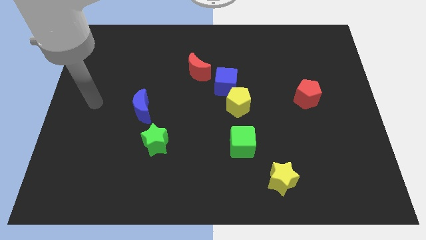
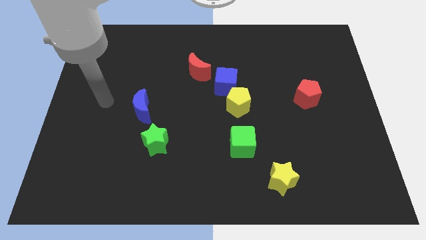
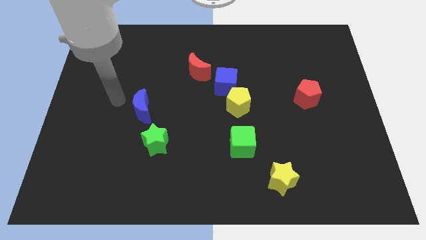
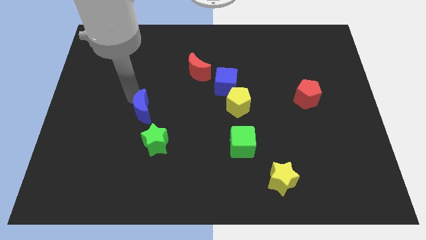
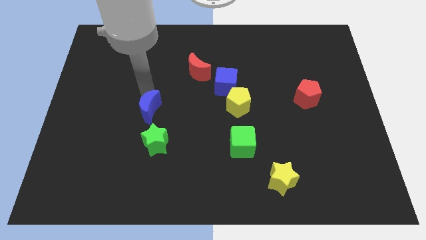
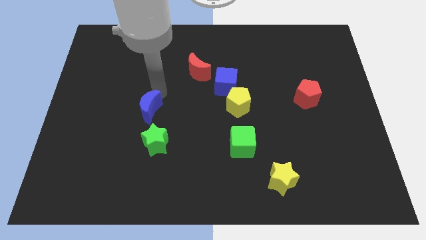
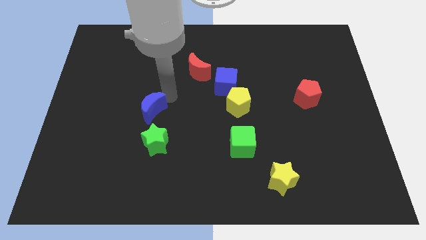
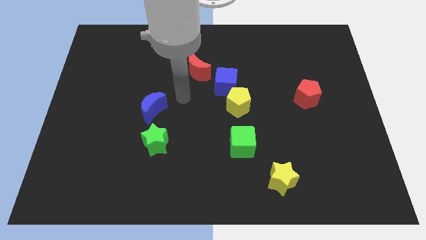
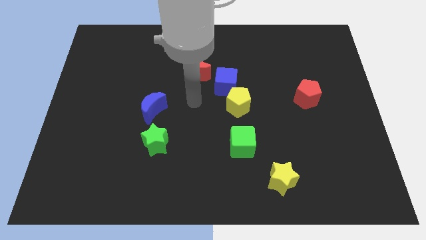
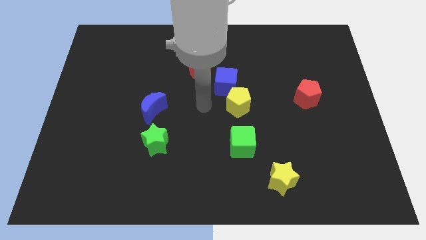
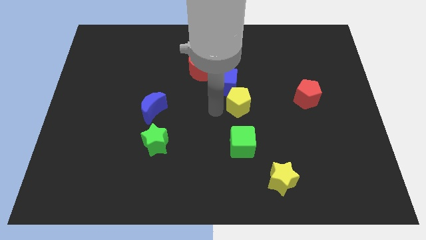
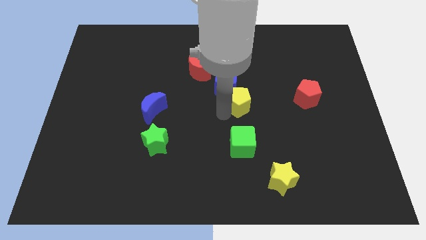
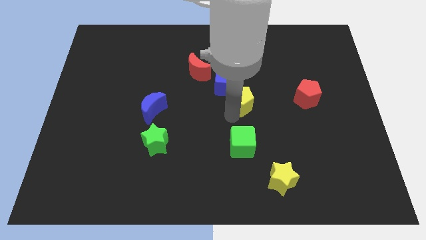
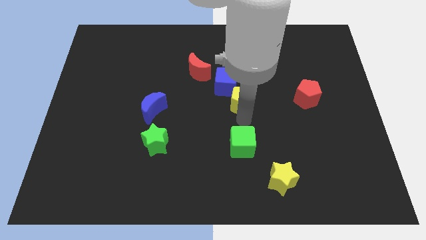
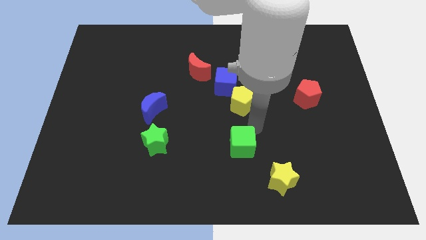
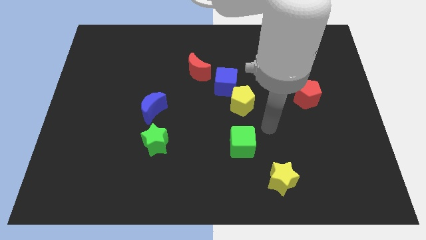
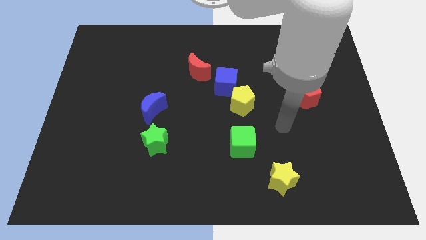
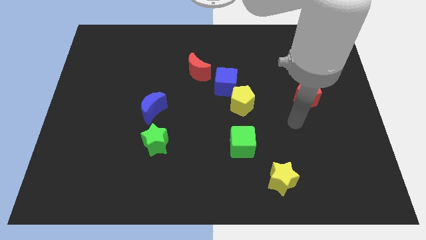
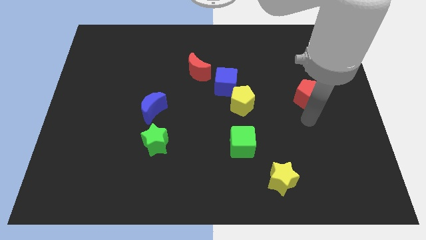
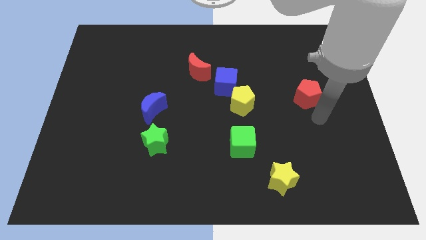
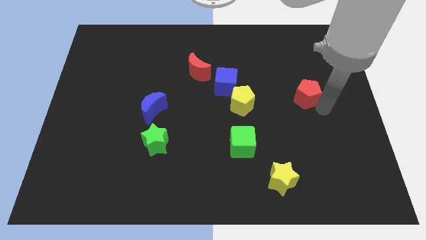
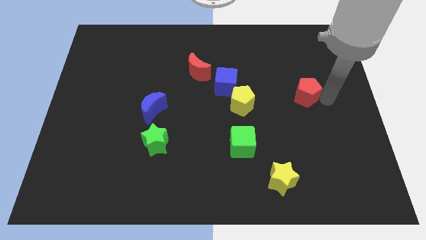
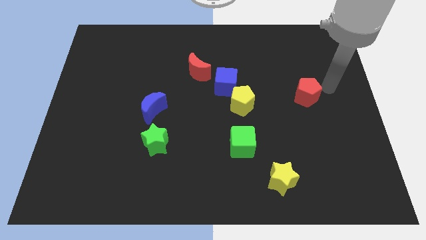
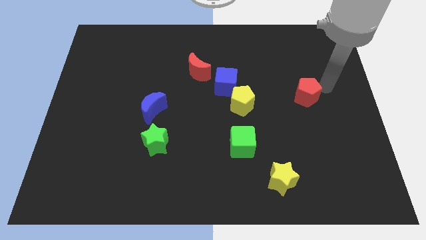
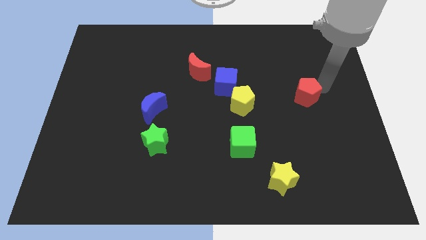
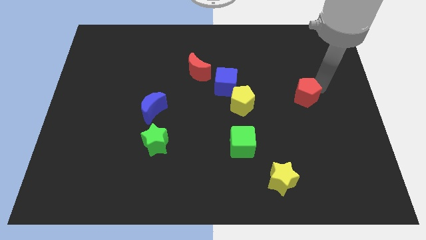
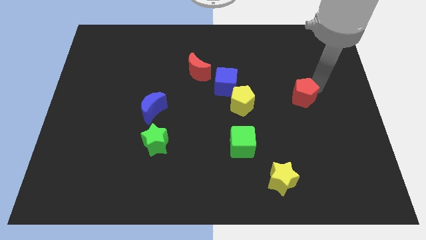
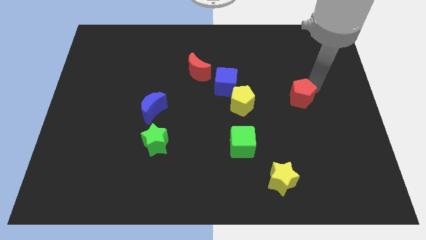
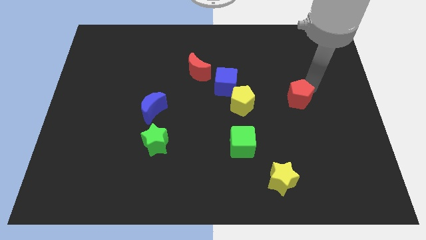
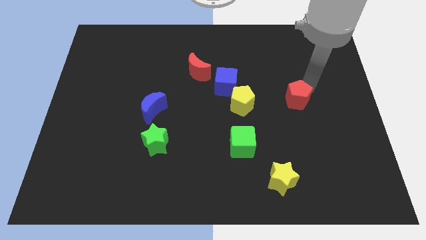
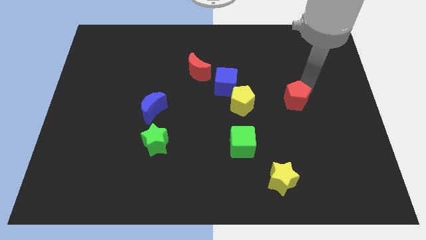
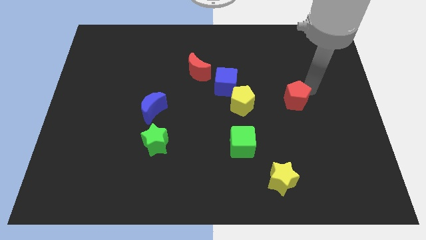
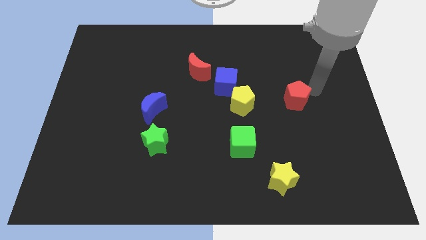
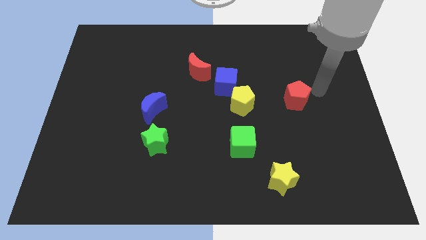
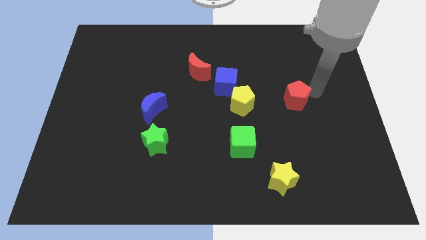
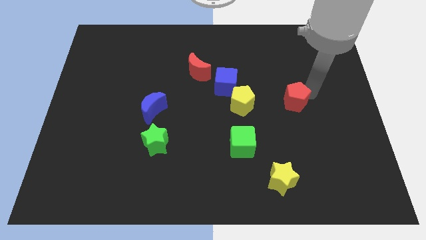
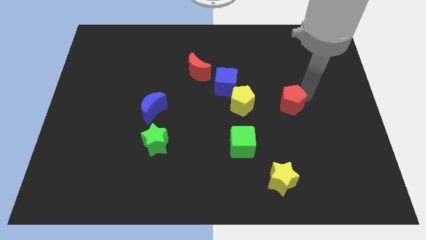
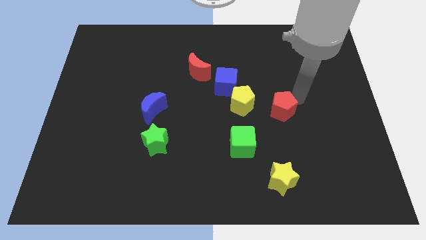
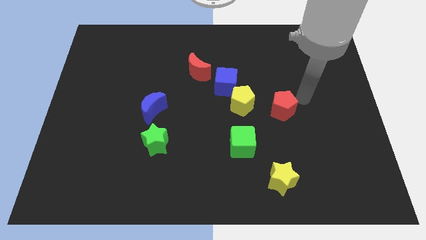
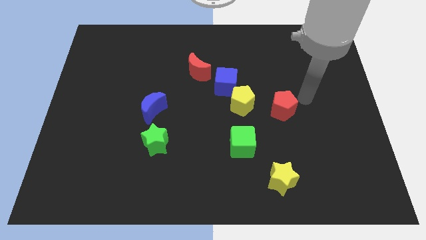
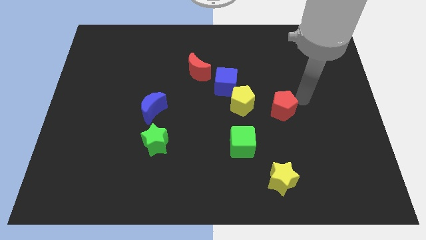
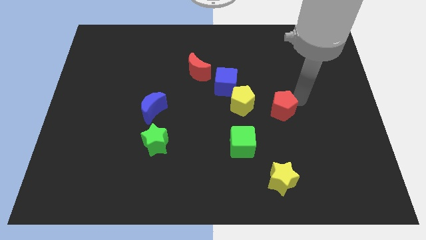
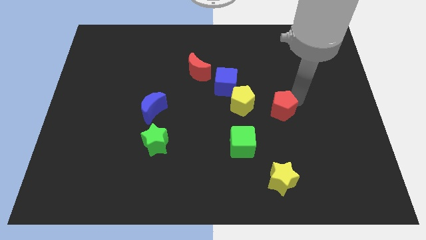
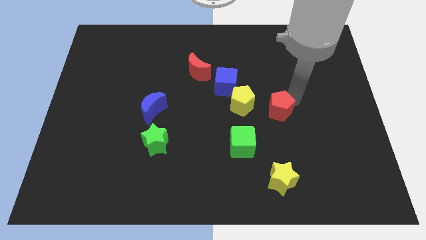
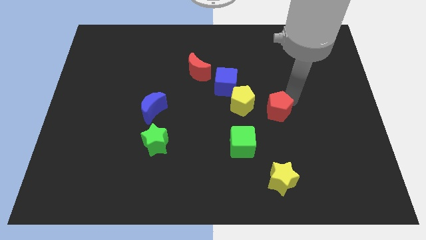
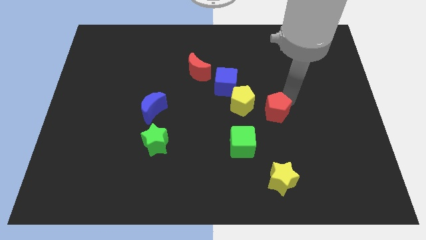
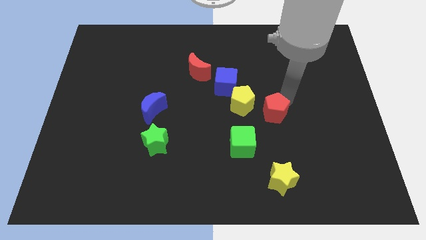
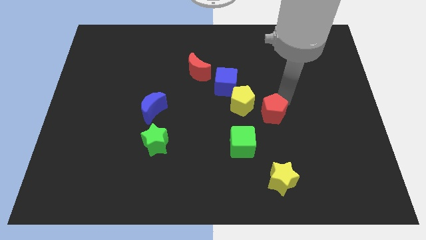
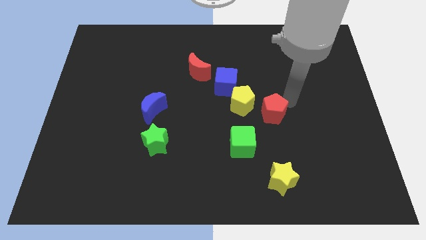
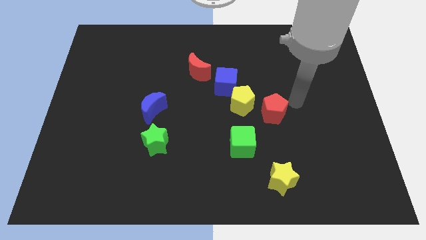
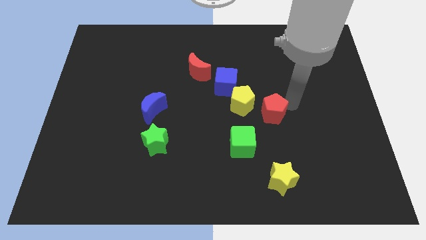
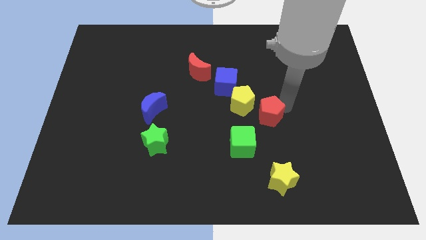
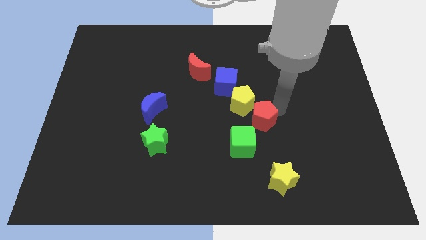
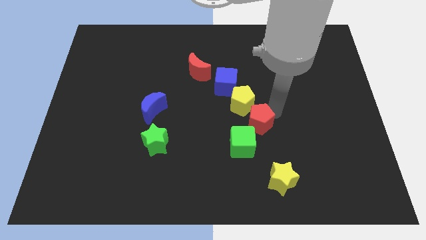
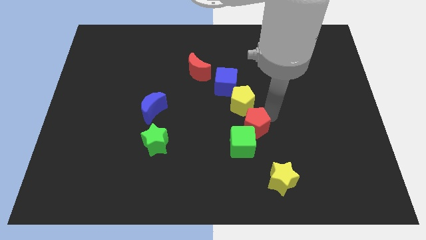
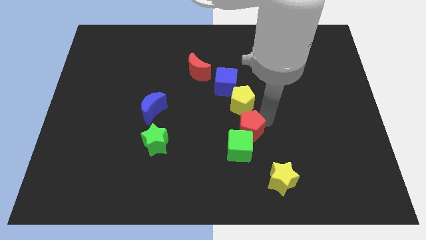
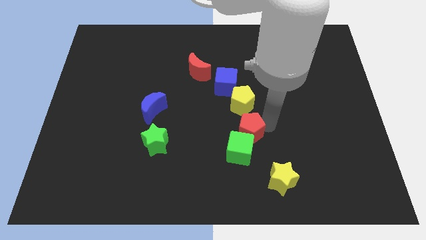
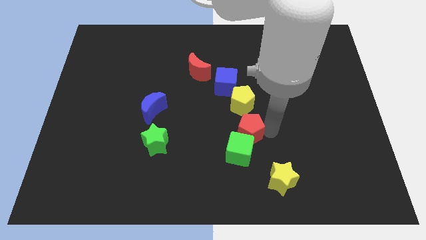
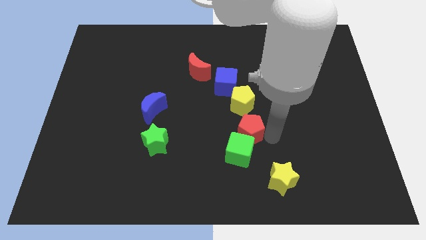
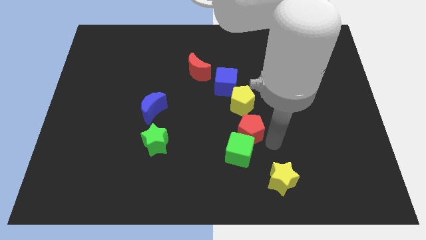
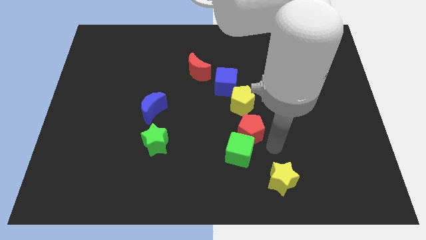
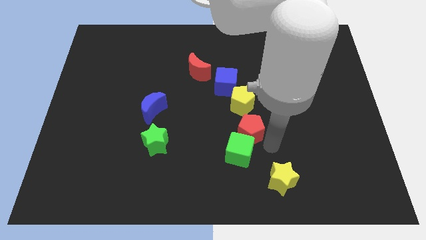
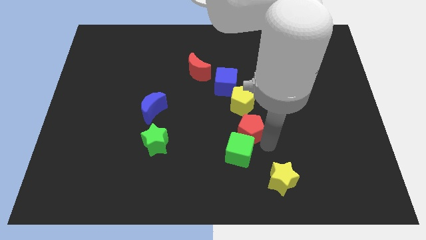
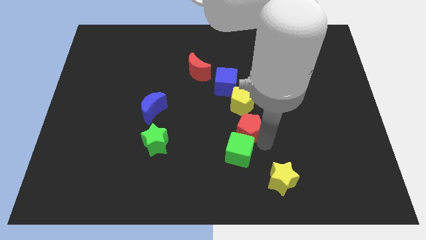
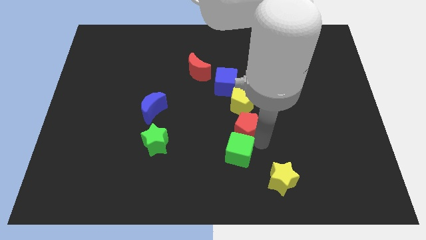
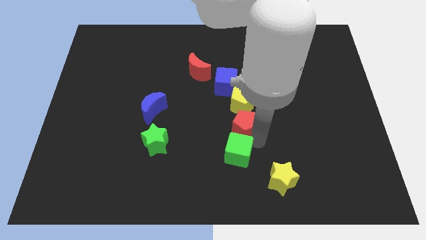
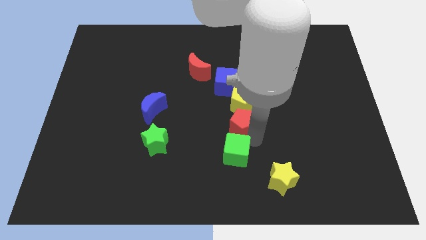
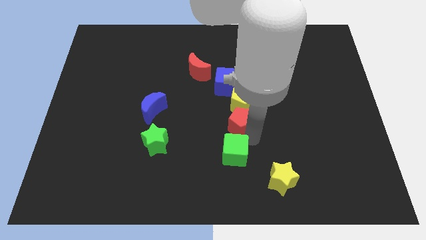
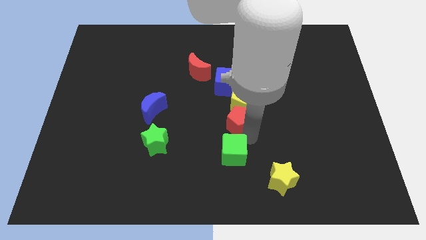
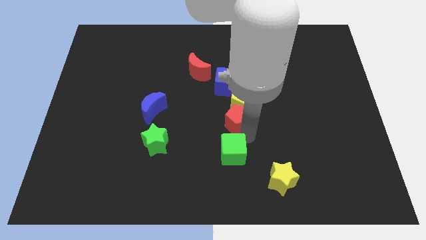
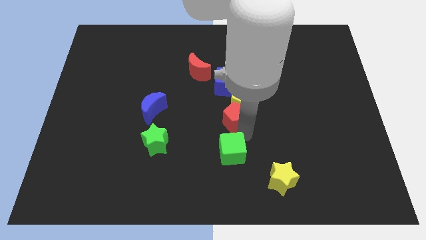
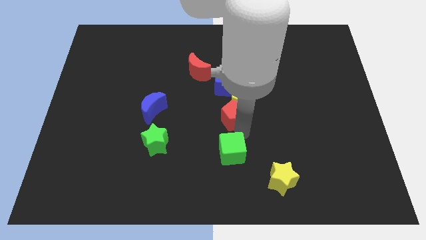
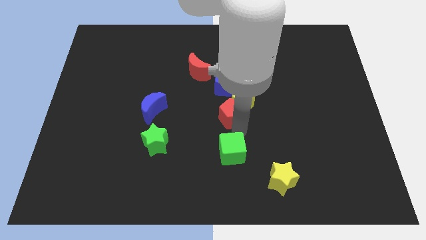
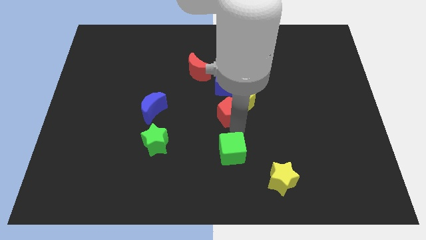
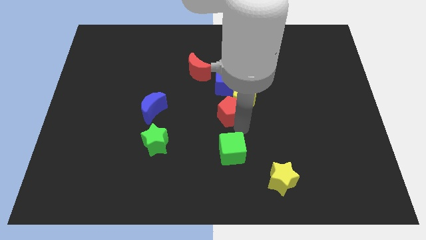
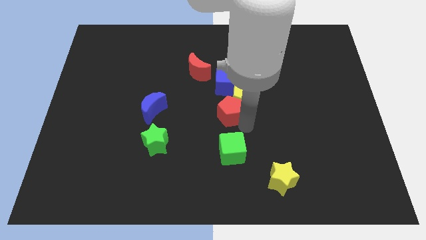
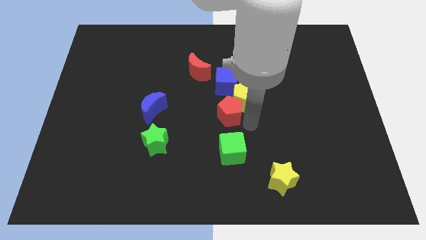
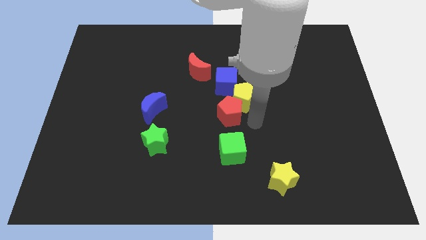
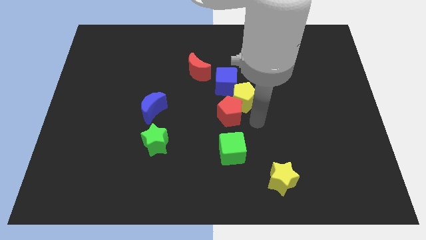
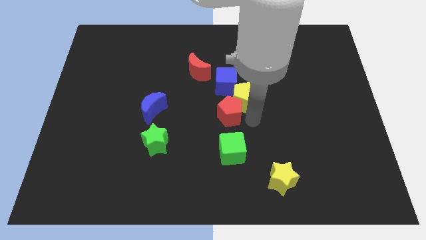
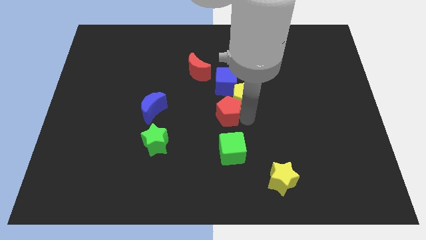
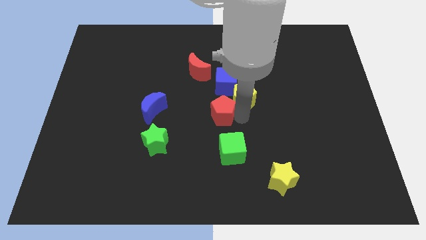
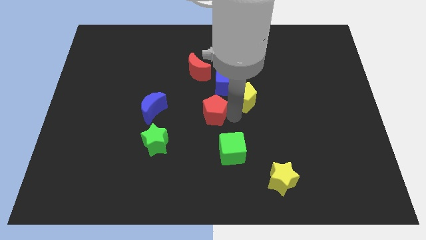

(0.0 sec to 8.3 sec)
push the red pentagon to the left
